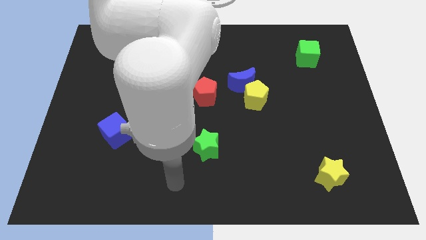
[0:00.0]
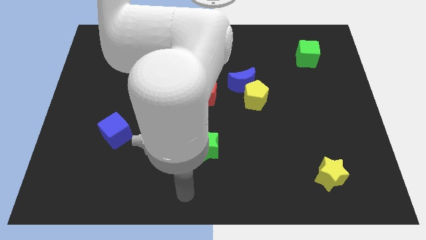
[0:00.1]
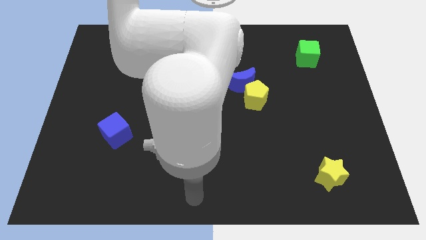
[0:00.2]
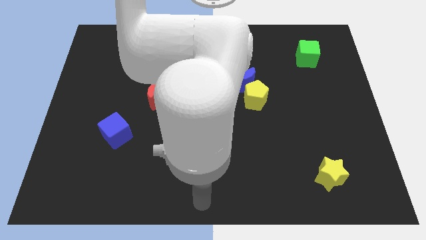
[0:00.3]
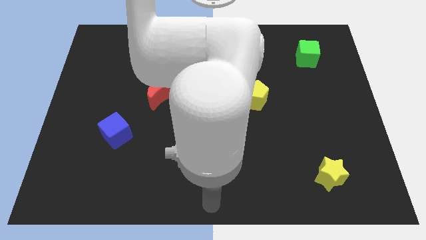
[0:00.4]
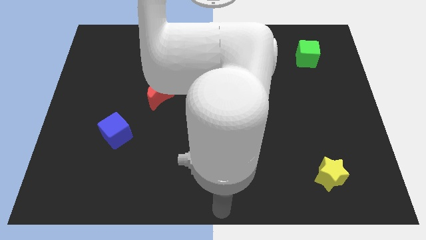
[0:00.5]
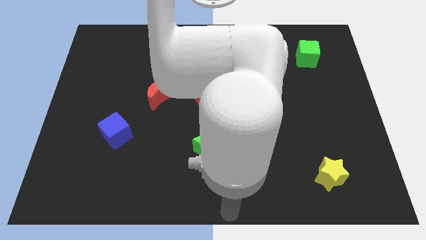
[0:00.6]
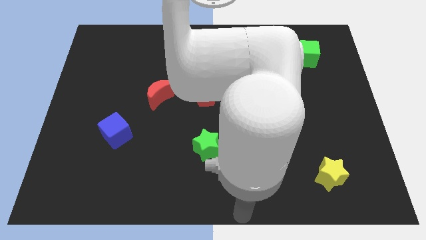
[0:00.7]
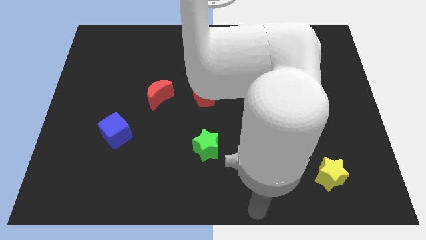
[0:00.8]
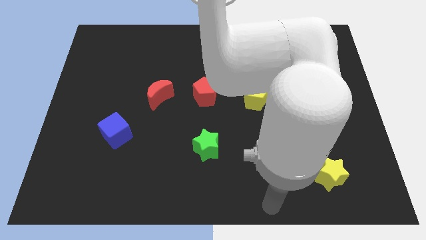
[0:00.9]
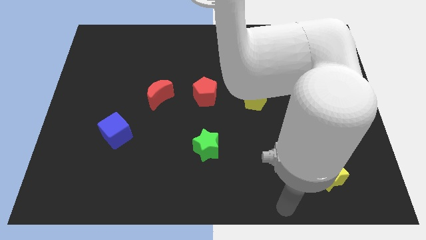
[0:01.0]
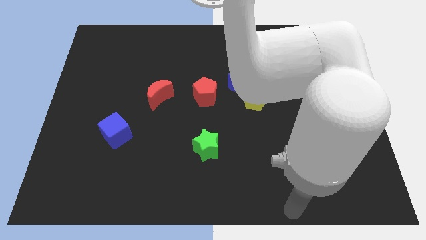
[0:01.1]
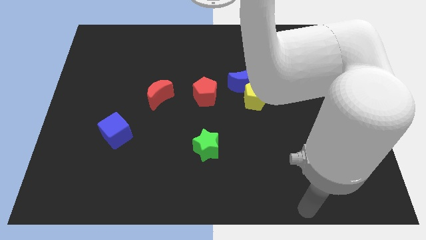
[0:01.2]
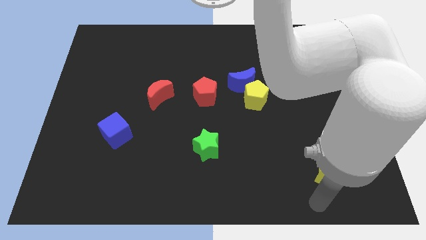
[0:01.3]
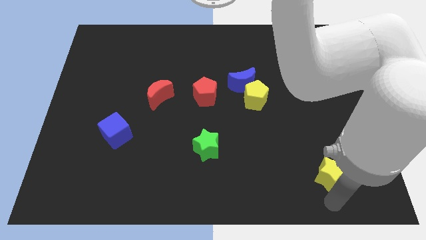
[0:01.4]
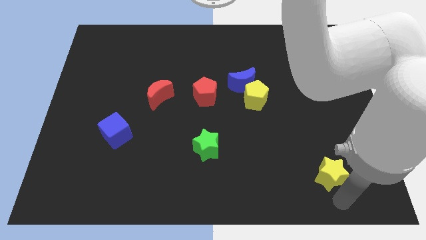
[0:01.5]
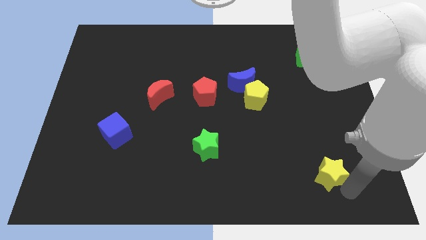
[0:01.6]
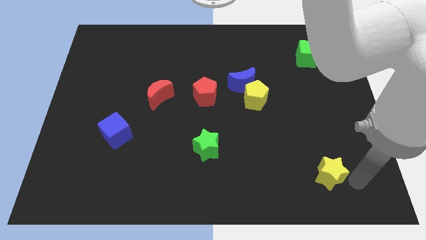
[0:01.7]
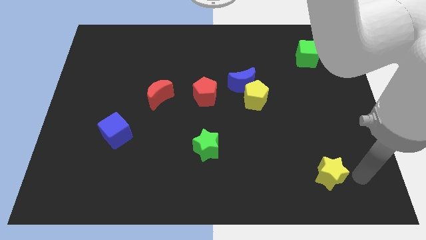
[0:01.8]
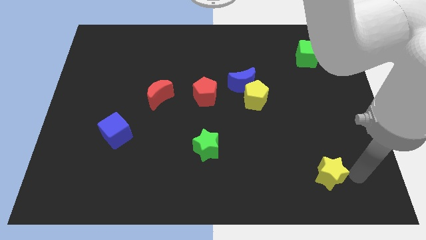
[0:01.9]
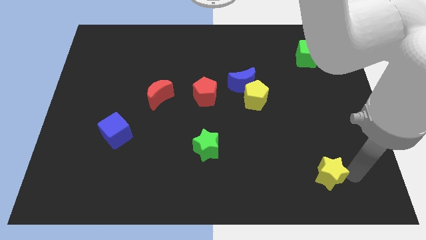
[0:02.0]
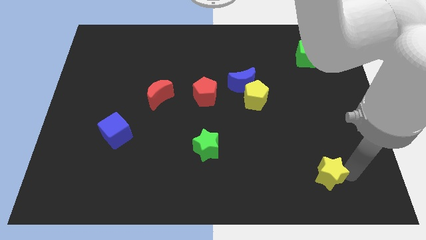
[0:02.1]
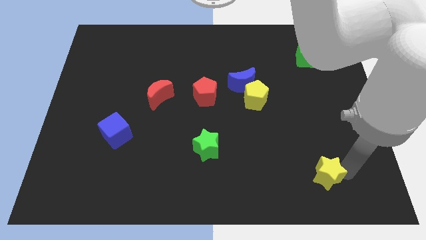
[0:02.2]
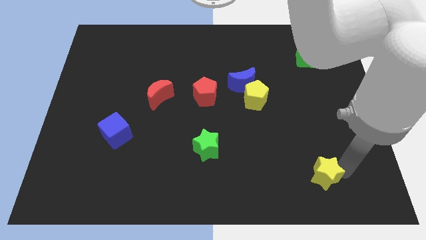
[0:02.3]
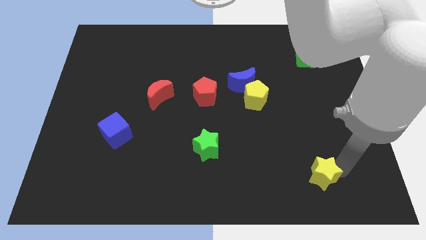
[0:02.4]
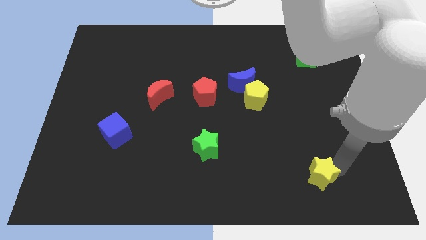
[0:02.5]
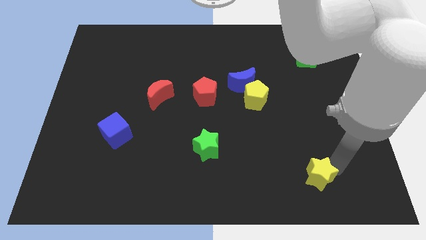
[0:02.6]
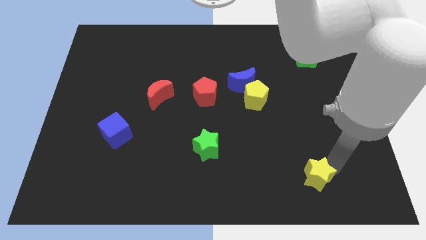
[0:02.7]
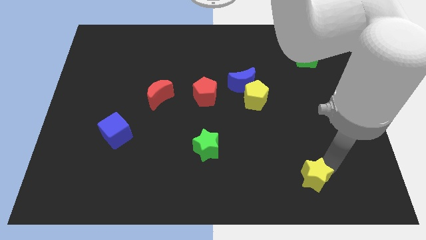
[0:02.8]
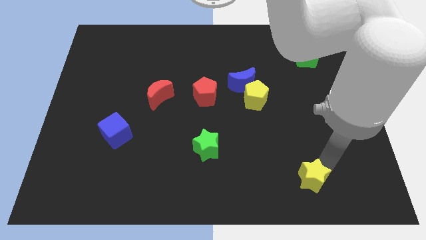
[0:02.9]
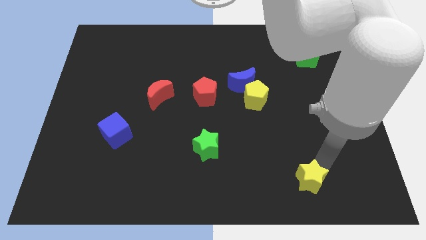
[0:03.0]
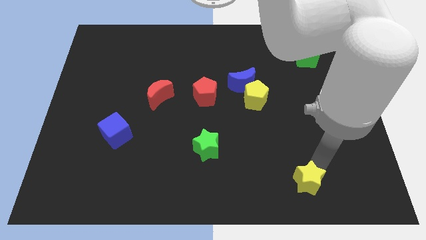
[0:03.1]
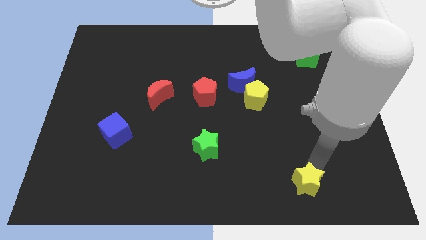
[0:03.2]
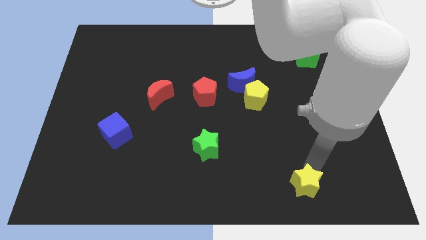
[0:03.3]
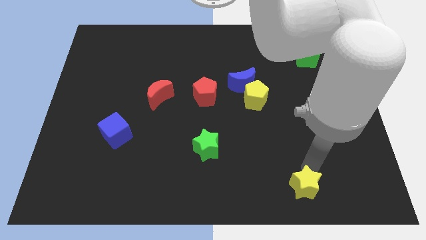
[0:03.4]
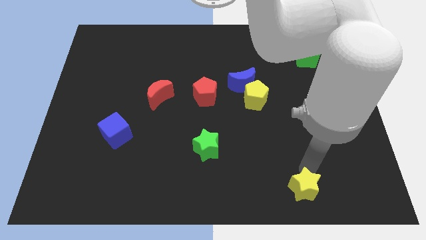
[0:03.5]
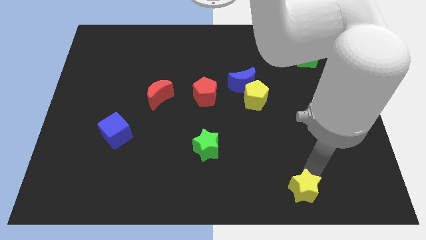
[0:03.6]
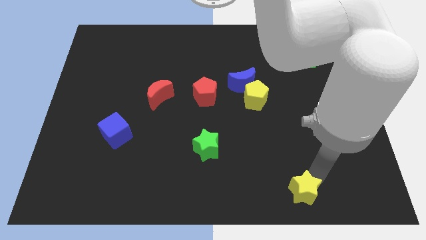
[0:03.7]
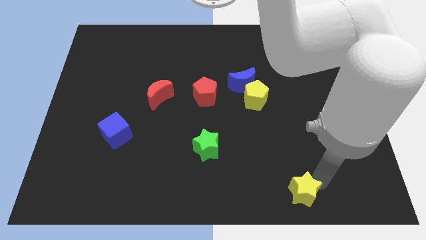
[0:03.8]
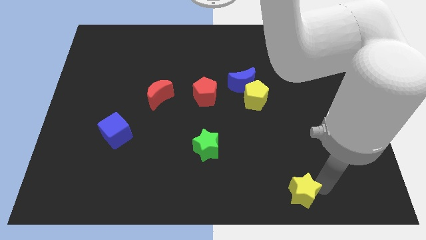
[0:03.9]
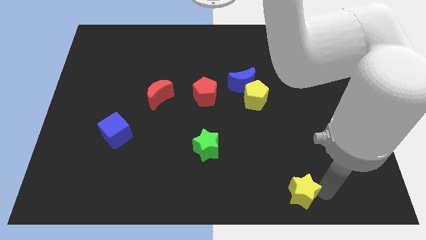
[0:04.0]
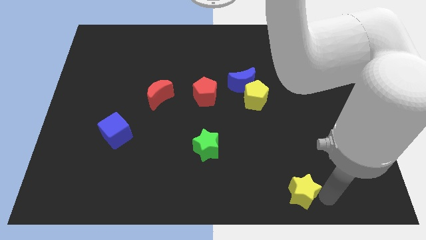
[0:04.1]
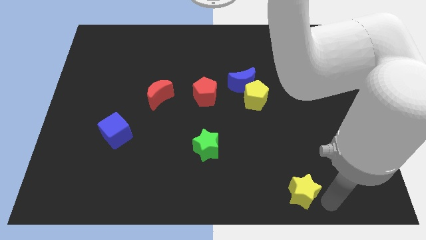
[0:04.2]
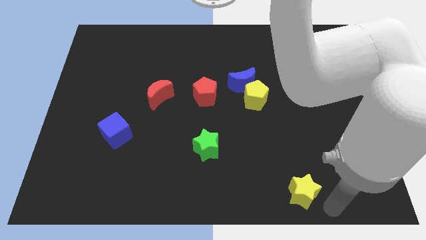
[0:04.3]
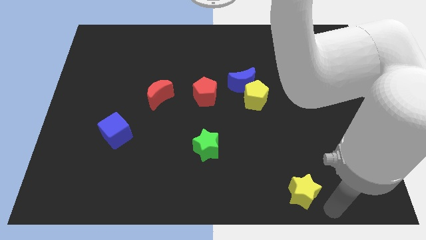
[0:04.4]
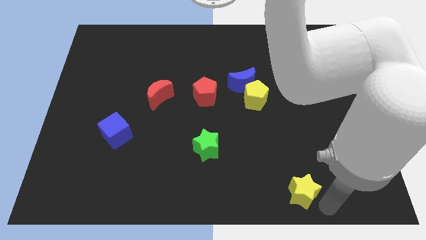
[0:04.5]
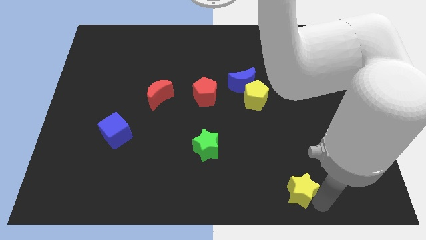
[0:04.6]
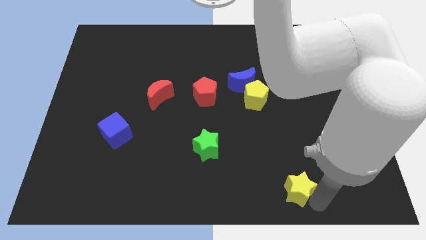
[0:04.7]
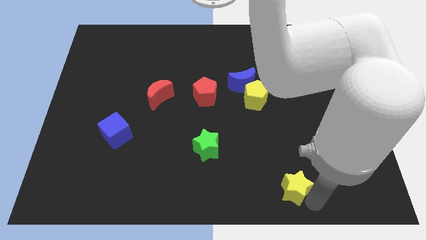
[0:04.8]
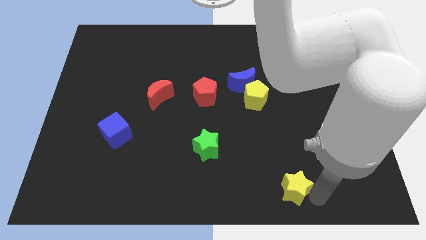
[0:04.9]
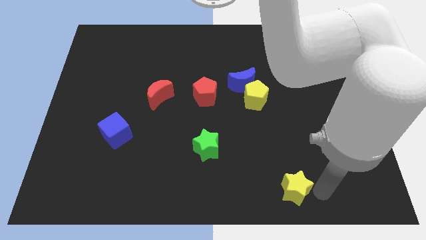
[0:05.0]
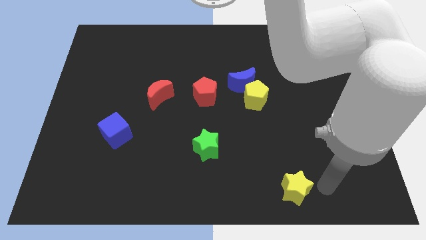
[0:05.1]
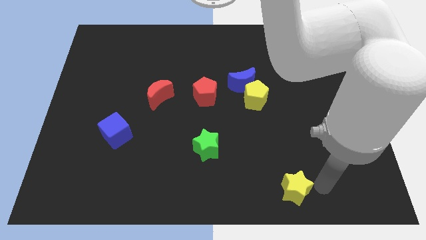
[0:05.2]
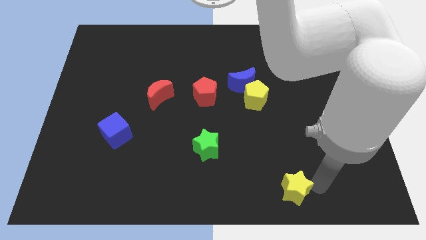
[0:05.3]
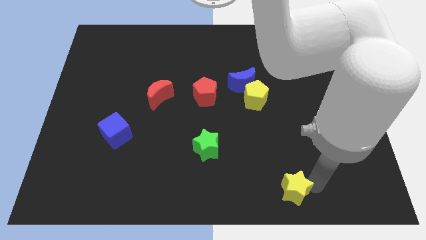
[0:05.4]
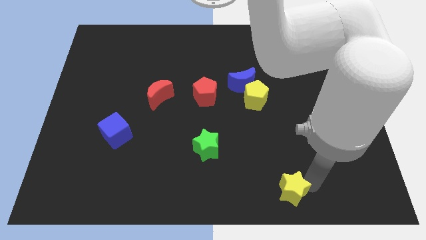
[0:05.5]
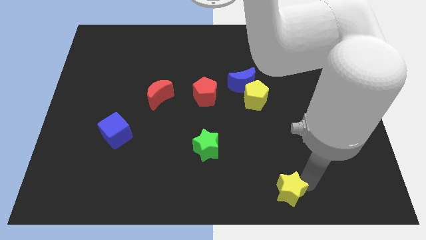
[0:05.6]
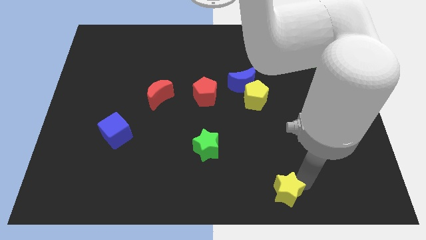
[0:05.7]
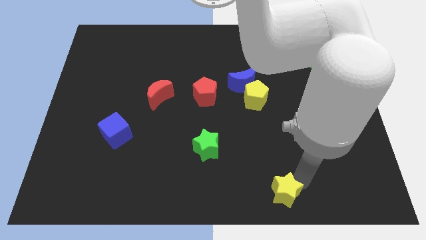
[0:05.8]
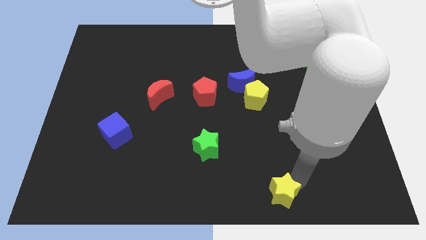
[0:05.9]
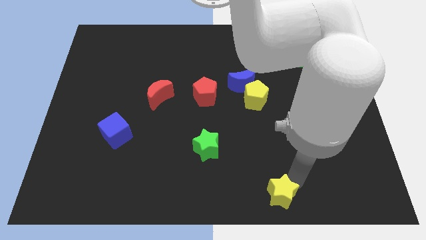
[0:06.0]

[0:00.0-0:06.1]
push the yellow star to the bottom side
